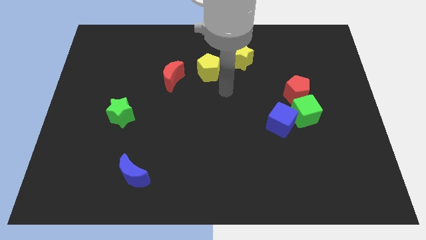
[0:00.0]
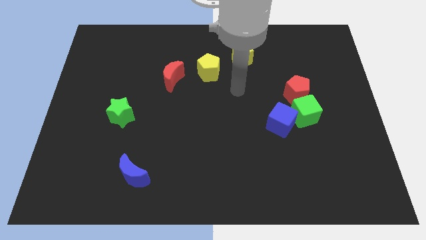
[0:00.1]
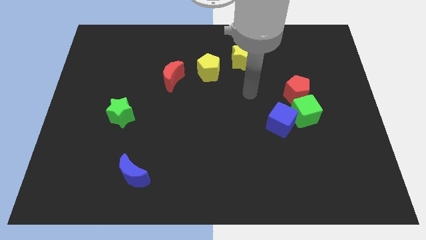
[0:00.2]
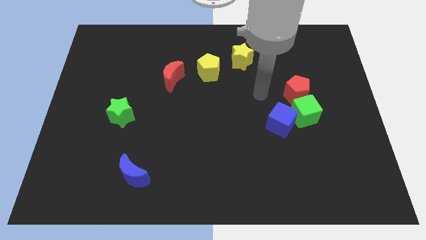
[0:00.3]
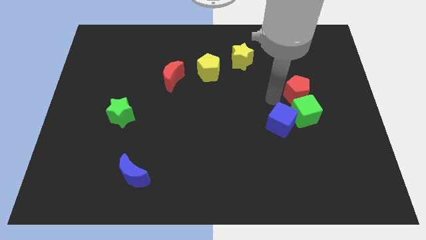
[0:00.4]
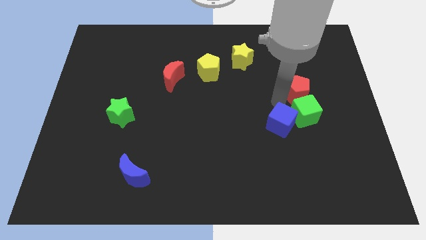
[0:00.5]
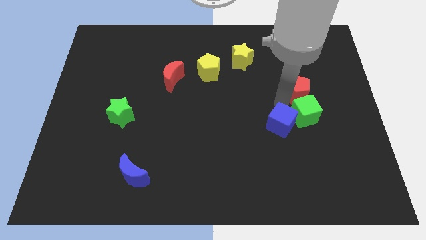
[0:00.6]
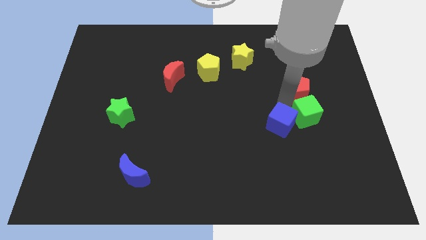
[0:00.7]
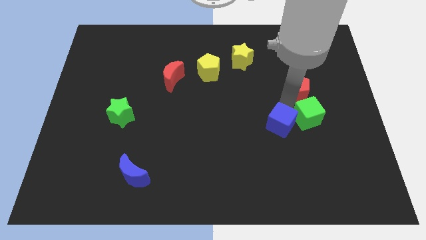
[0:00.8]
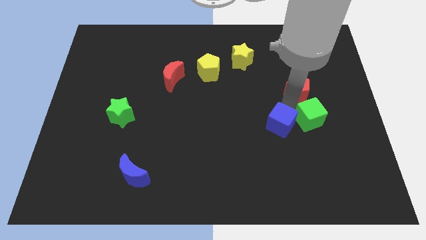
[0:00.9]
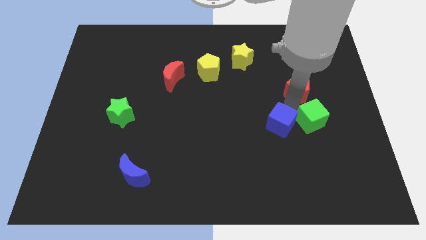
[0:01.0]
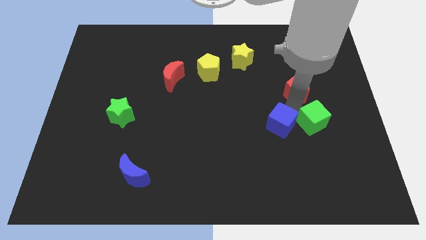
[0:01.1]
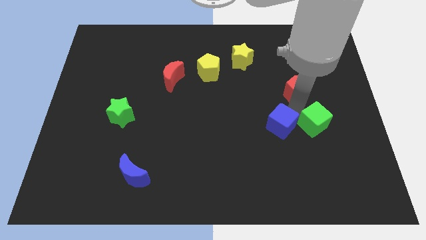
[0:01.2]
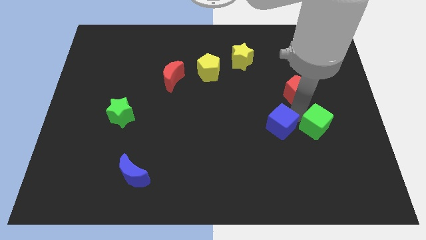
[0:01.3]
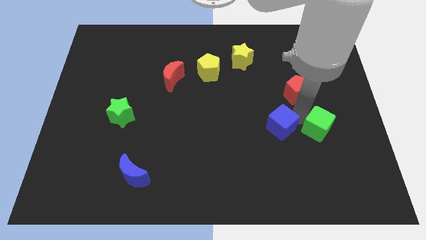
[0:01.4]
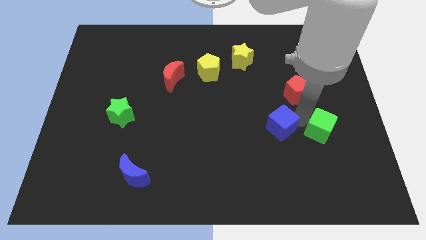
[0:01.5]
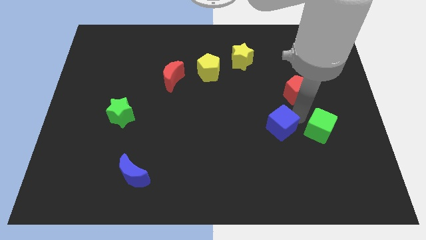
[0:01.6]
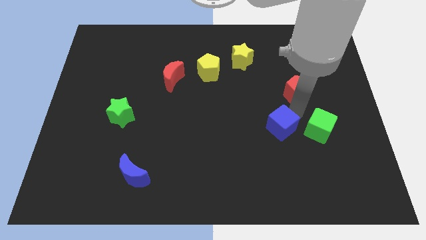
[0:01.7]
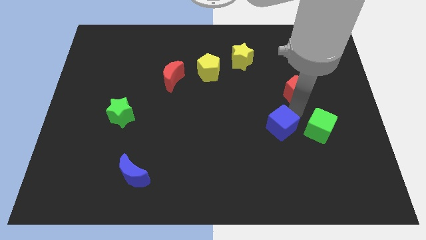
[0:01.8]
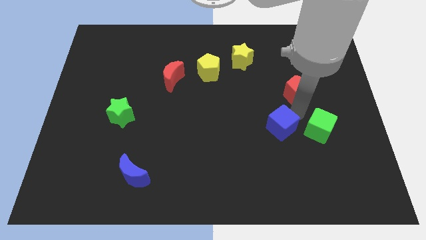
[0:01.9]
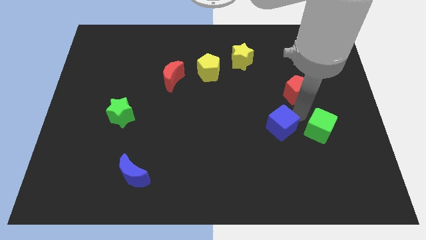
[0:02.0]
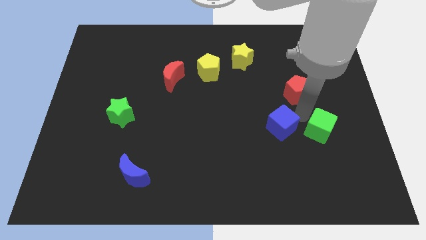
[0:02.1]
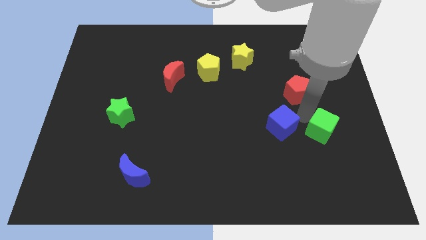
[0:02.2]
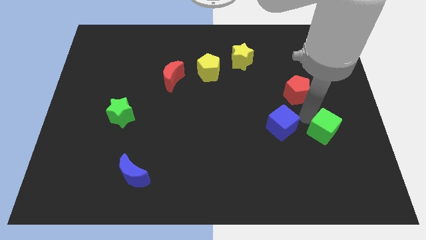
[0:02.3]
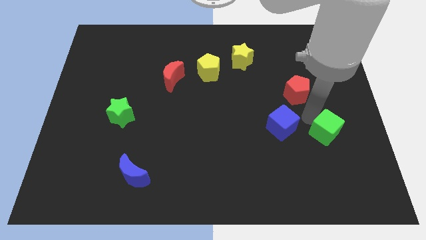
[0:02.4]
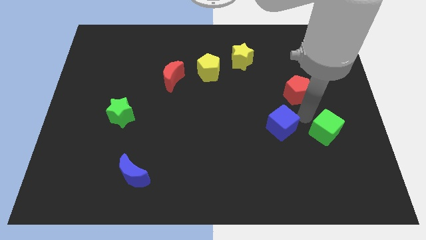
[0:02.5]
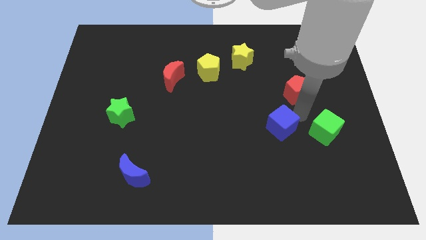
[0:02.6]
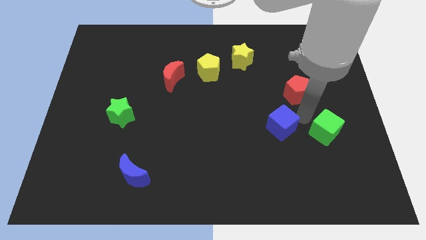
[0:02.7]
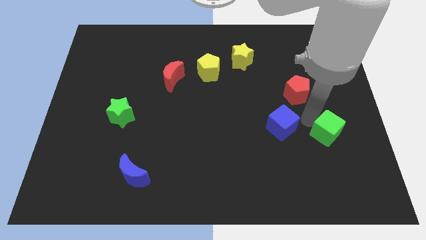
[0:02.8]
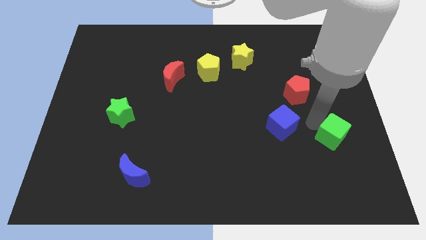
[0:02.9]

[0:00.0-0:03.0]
move the green cube away from the blue cube and red pentagon

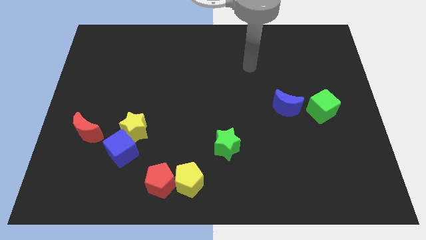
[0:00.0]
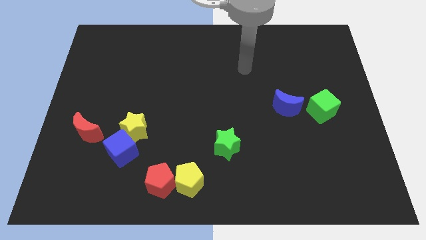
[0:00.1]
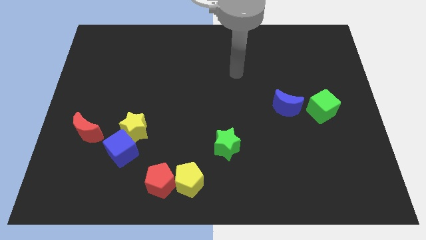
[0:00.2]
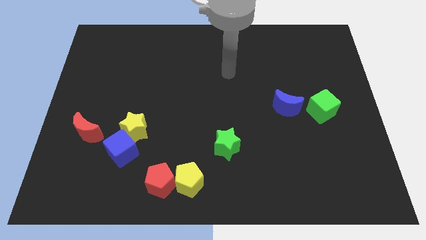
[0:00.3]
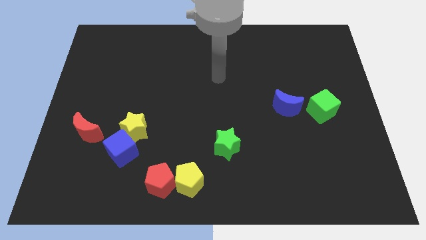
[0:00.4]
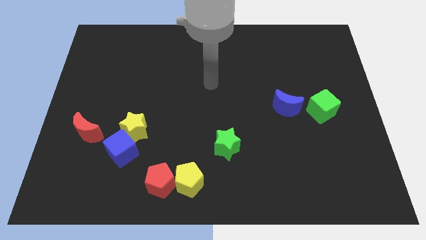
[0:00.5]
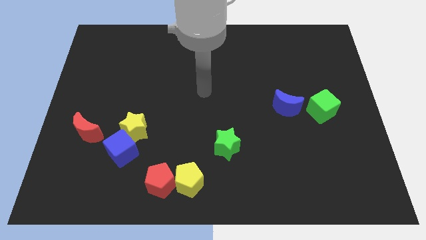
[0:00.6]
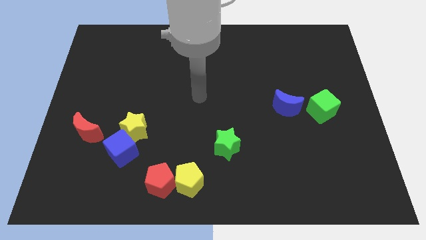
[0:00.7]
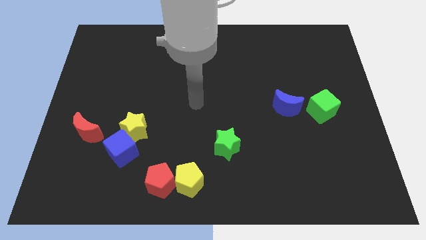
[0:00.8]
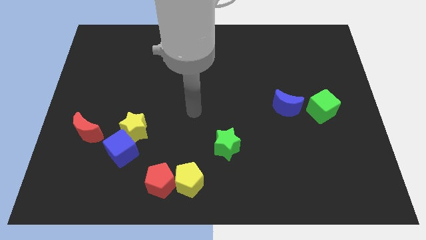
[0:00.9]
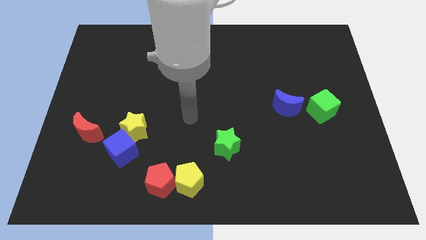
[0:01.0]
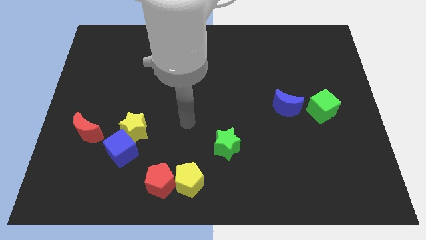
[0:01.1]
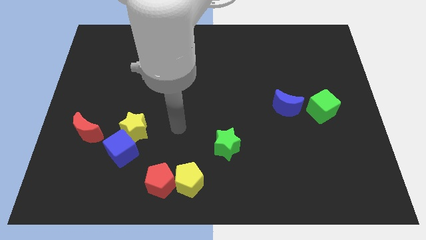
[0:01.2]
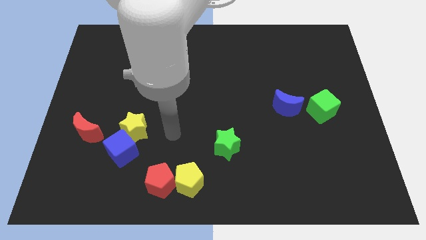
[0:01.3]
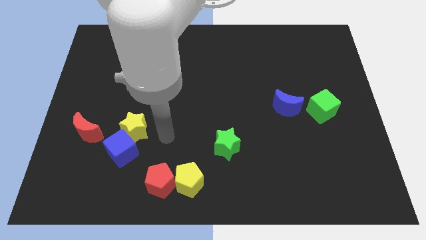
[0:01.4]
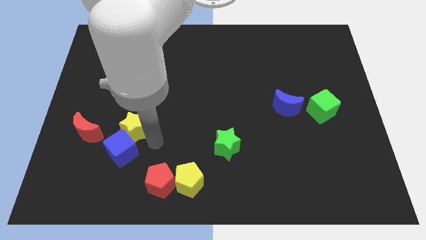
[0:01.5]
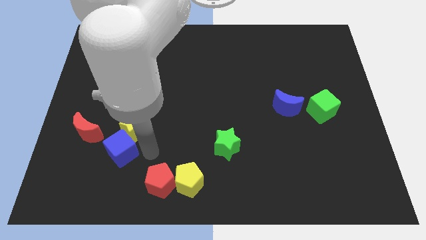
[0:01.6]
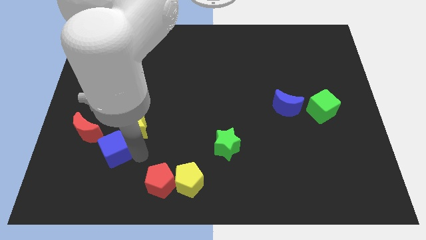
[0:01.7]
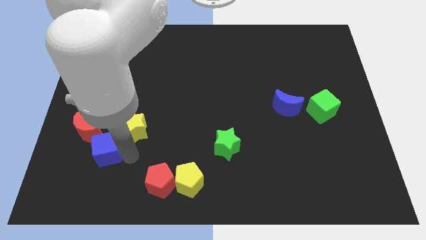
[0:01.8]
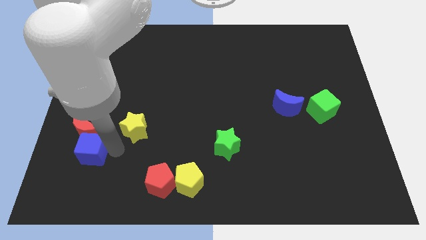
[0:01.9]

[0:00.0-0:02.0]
pull the yellow star apart from the blue cube

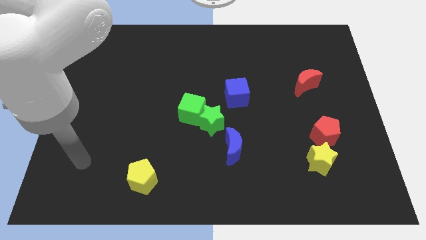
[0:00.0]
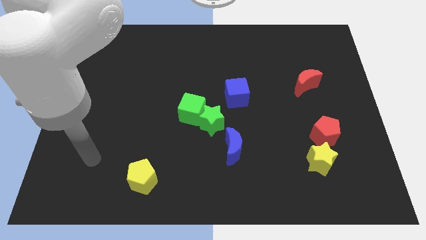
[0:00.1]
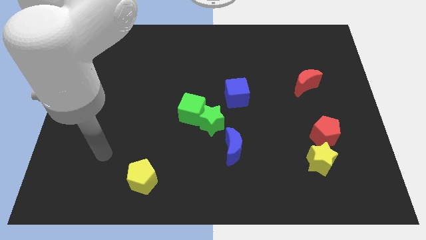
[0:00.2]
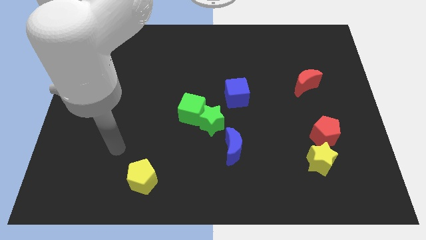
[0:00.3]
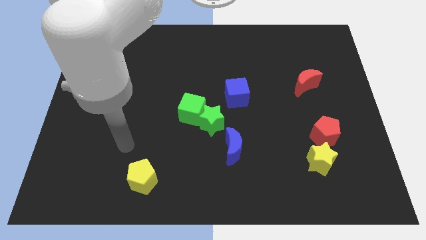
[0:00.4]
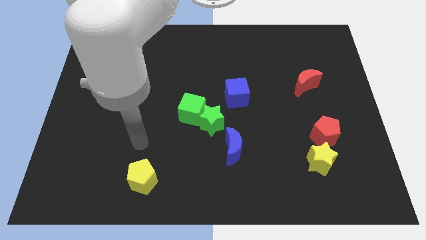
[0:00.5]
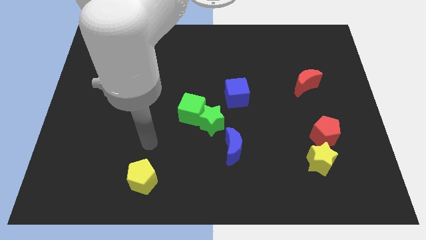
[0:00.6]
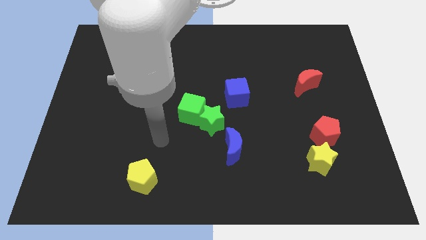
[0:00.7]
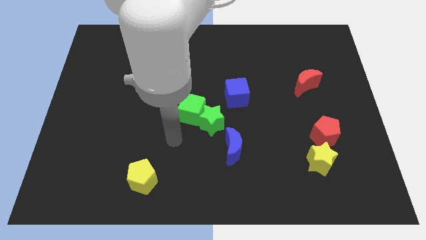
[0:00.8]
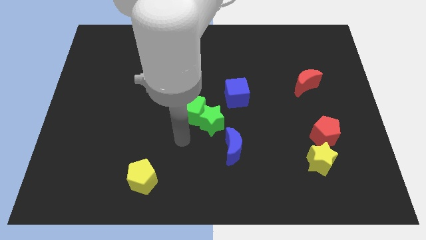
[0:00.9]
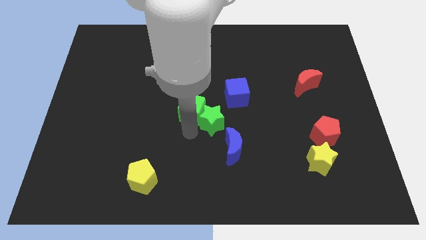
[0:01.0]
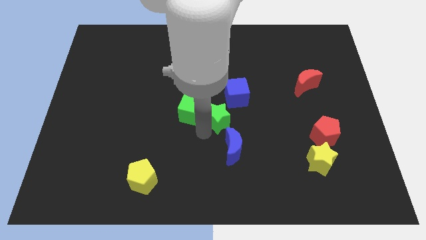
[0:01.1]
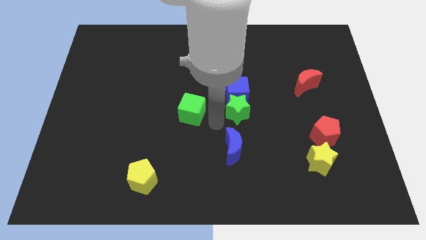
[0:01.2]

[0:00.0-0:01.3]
separate the green cube from the green star

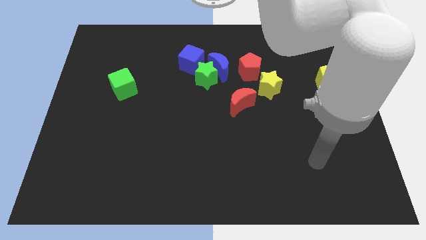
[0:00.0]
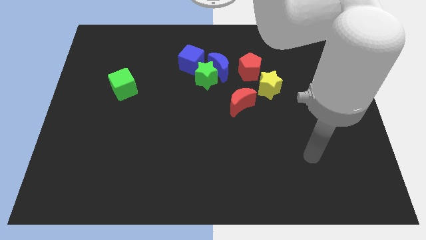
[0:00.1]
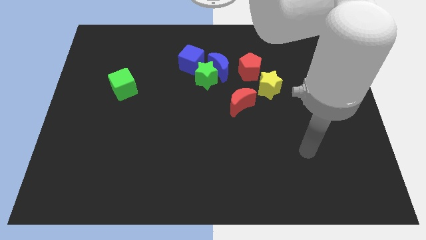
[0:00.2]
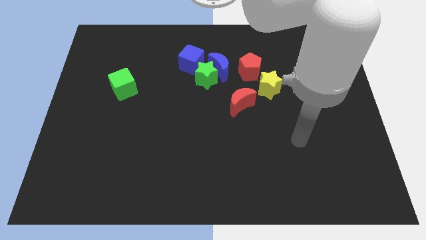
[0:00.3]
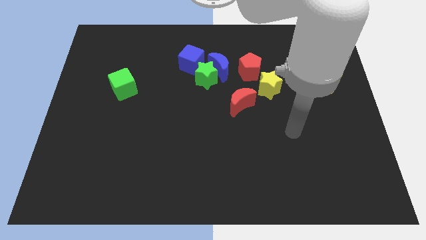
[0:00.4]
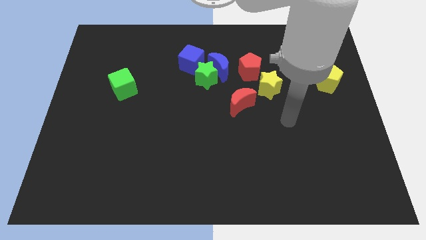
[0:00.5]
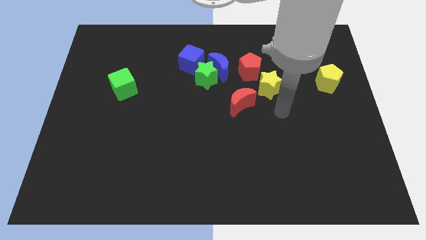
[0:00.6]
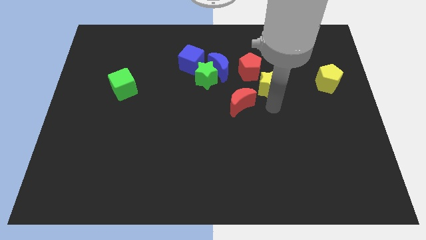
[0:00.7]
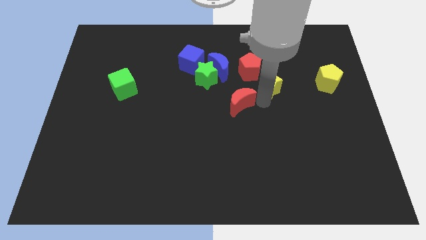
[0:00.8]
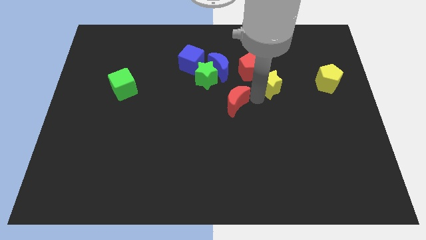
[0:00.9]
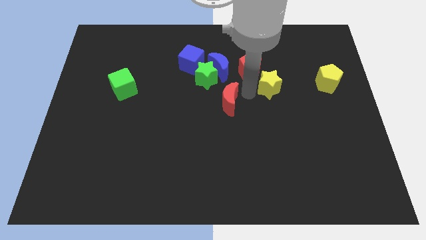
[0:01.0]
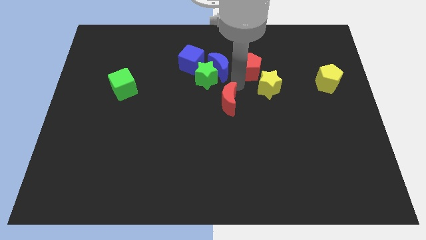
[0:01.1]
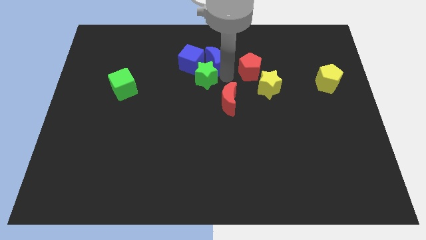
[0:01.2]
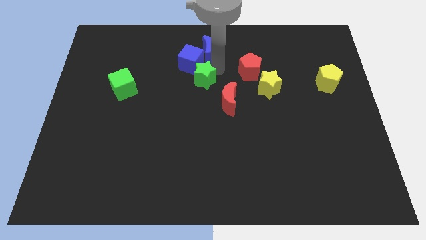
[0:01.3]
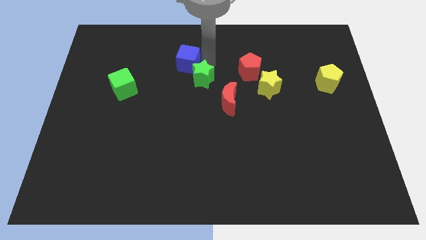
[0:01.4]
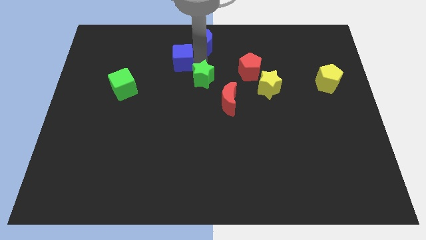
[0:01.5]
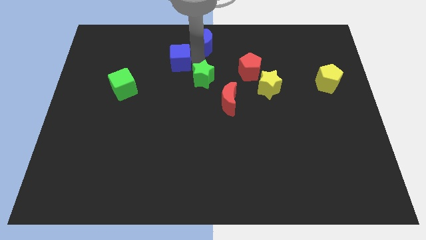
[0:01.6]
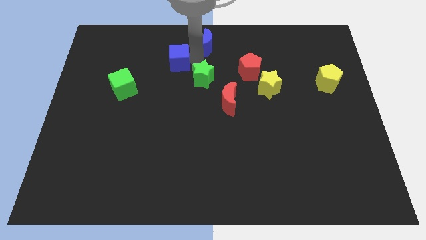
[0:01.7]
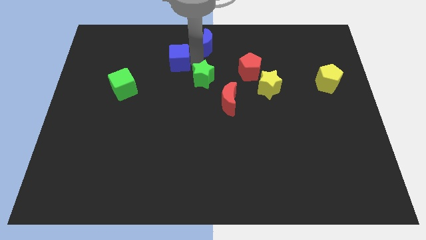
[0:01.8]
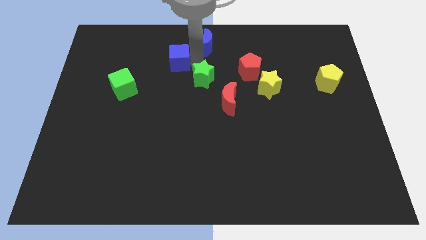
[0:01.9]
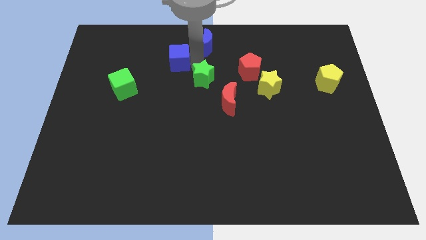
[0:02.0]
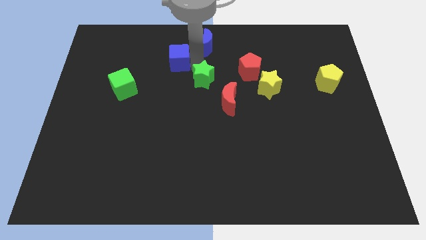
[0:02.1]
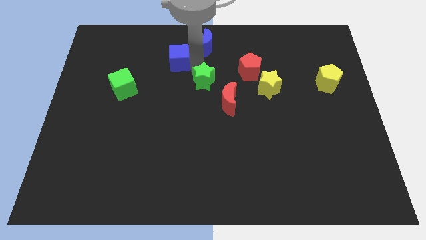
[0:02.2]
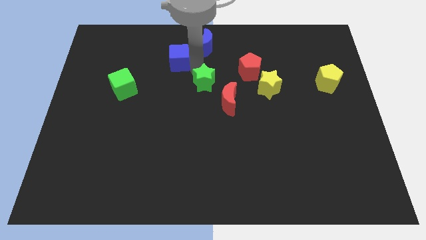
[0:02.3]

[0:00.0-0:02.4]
move the green star away from the blue moon and blue cube

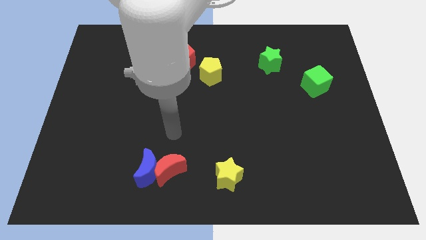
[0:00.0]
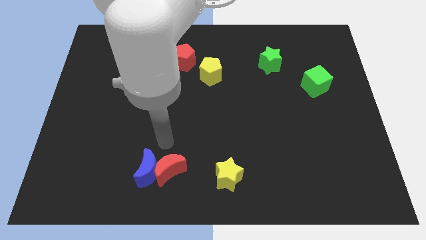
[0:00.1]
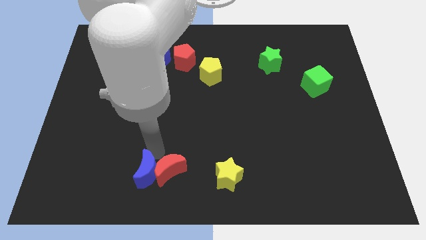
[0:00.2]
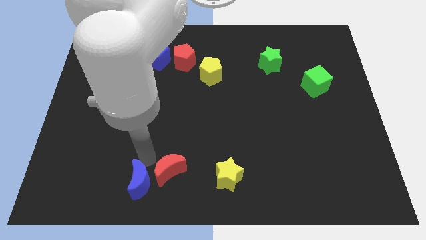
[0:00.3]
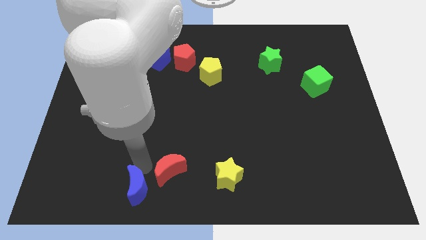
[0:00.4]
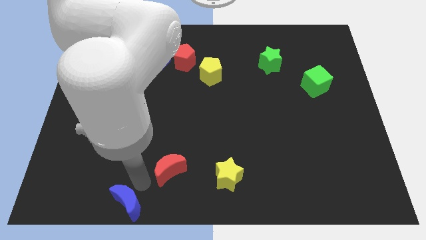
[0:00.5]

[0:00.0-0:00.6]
move the red moon away from the blue moon

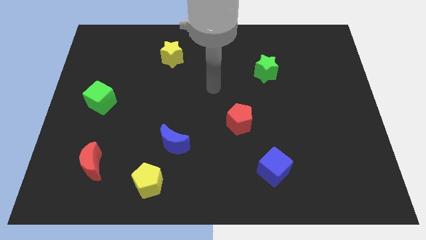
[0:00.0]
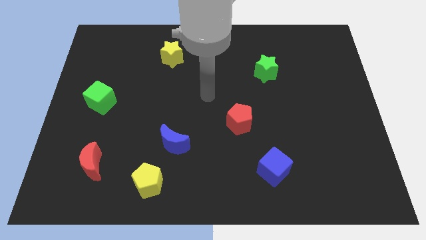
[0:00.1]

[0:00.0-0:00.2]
move the blue moon away from the yellow pentagon
